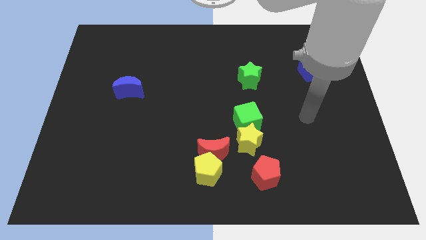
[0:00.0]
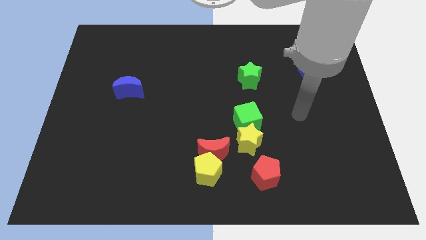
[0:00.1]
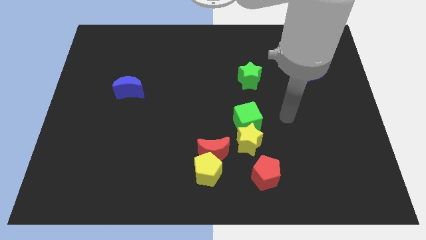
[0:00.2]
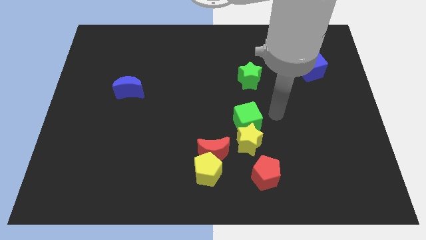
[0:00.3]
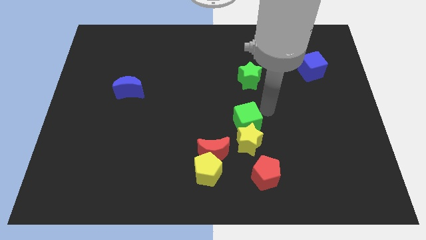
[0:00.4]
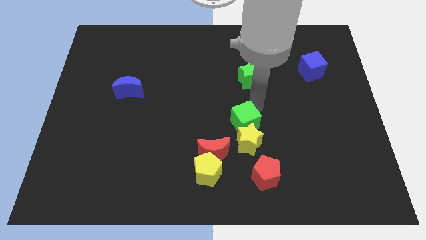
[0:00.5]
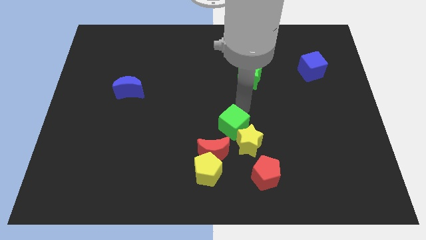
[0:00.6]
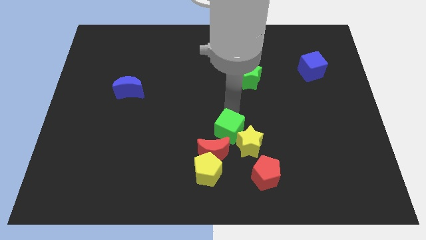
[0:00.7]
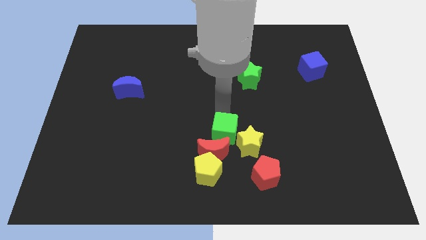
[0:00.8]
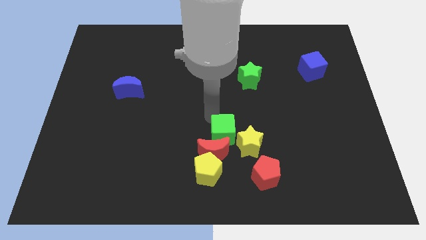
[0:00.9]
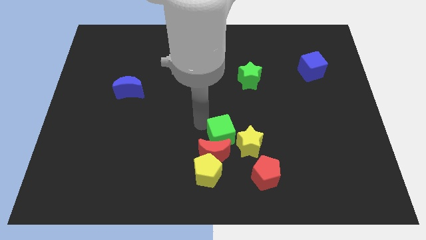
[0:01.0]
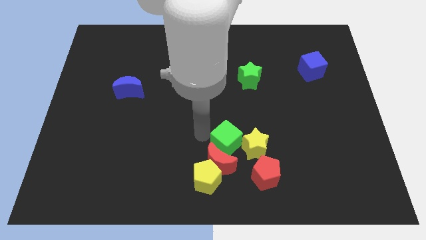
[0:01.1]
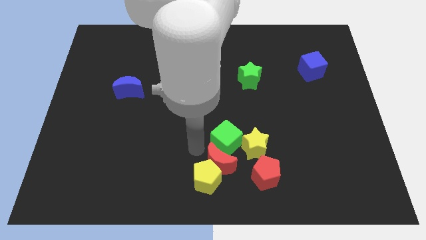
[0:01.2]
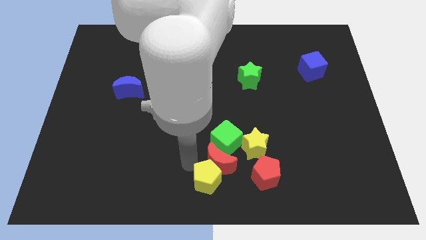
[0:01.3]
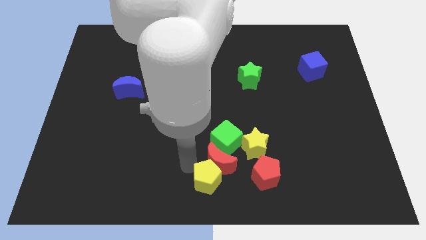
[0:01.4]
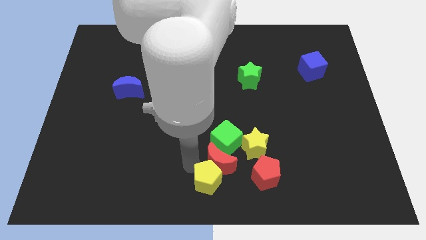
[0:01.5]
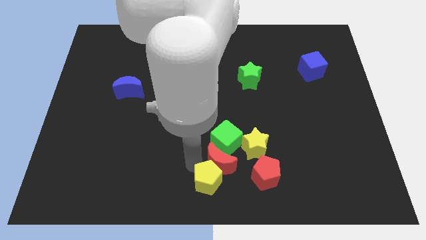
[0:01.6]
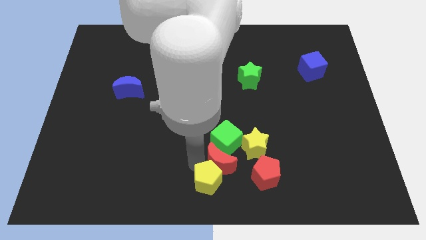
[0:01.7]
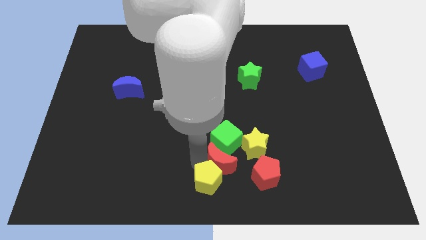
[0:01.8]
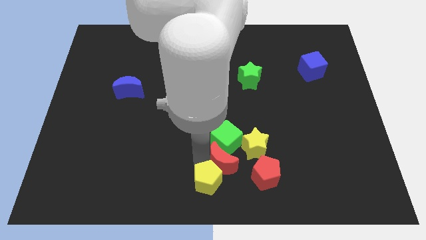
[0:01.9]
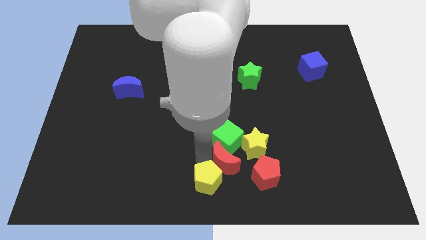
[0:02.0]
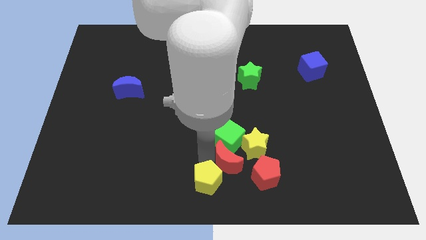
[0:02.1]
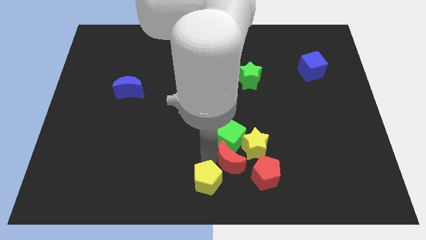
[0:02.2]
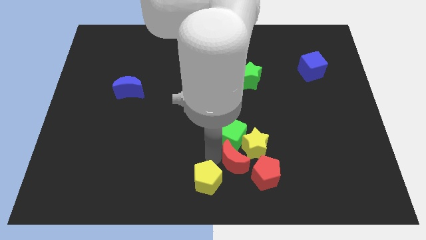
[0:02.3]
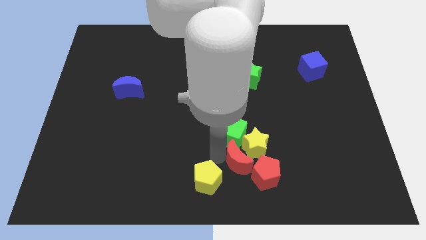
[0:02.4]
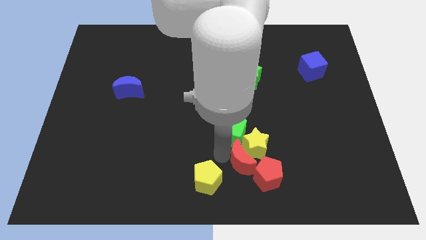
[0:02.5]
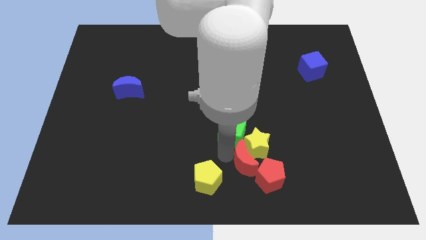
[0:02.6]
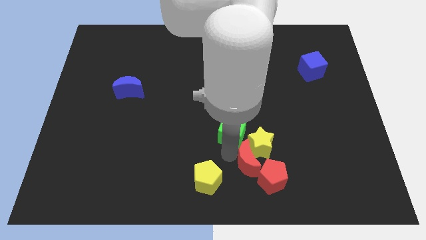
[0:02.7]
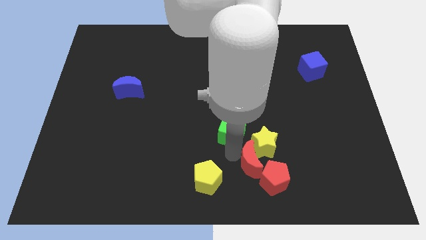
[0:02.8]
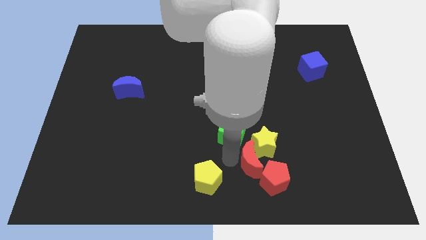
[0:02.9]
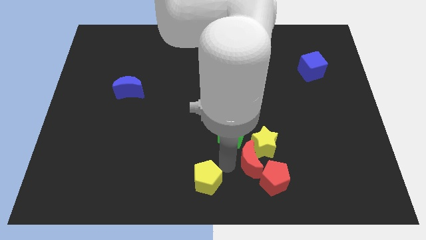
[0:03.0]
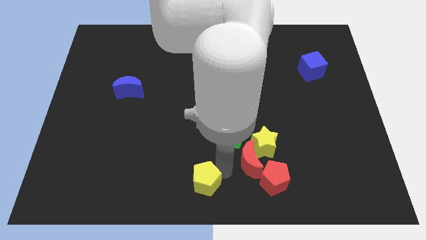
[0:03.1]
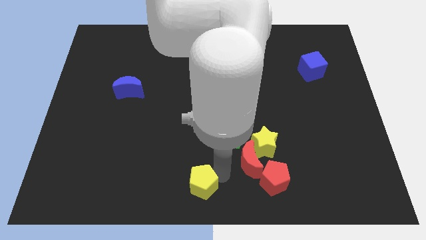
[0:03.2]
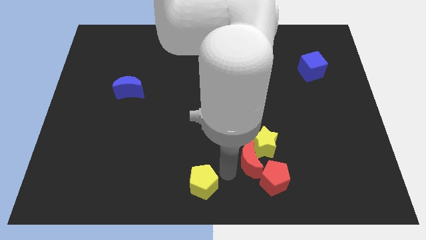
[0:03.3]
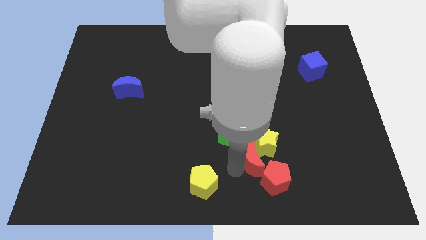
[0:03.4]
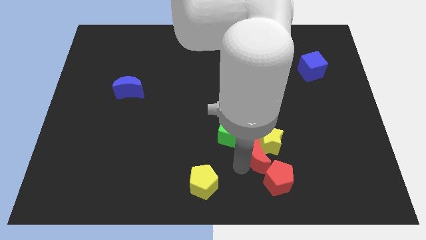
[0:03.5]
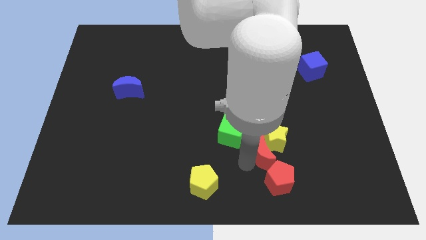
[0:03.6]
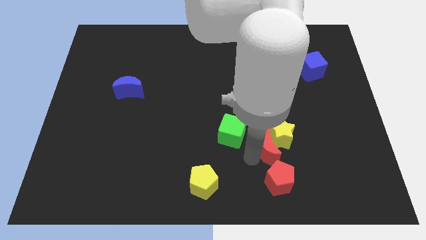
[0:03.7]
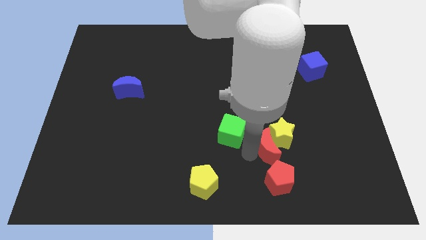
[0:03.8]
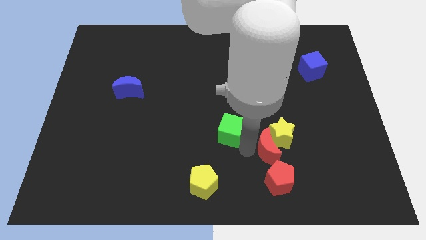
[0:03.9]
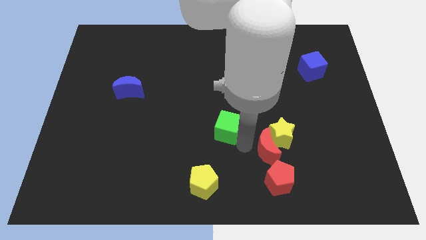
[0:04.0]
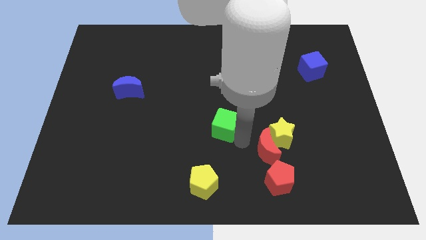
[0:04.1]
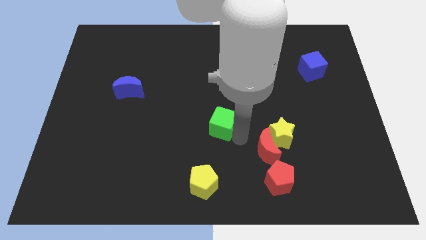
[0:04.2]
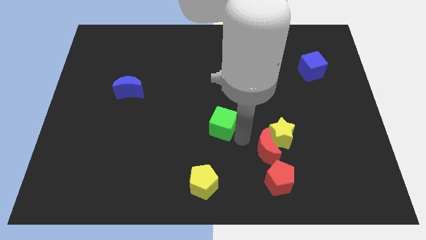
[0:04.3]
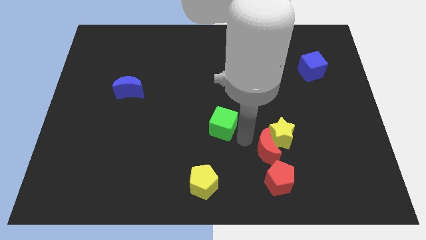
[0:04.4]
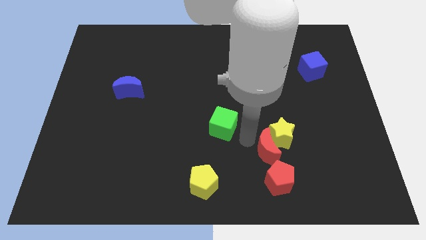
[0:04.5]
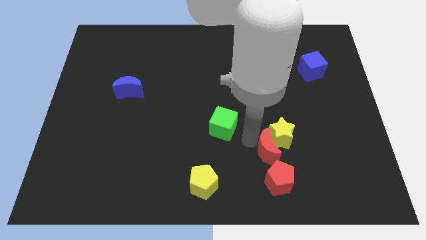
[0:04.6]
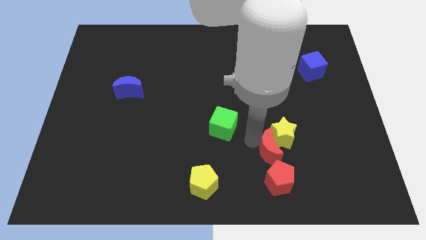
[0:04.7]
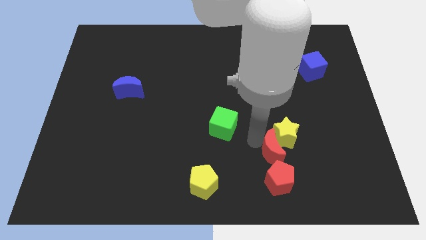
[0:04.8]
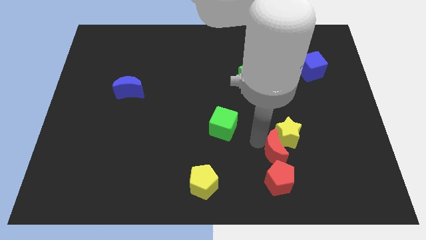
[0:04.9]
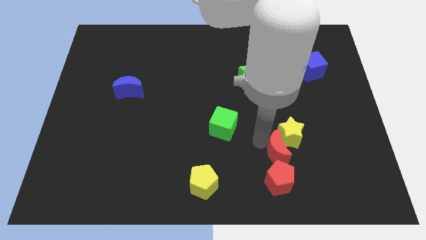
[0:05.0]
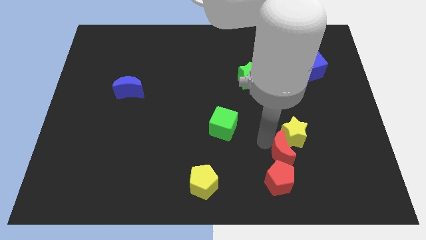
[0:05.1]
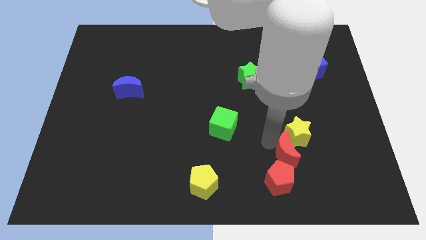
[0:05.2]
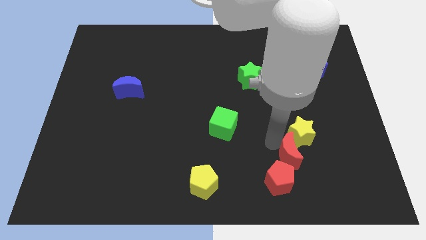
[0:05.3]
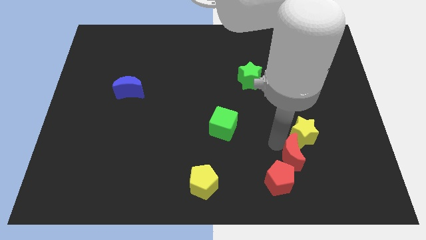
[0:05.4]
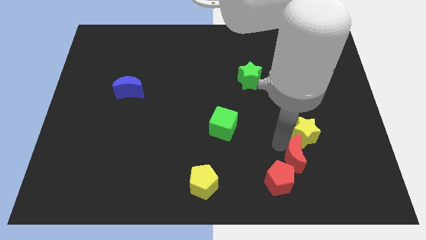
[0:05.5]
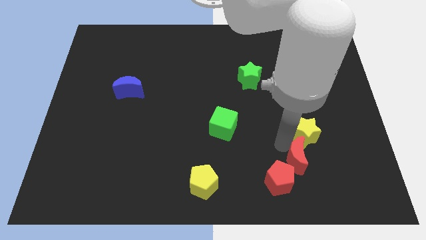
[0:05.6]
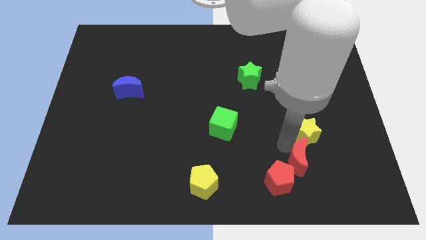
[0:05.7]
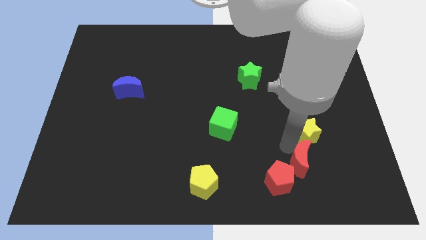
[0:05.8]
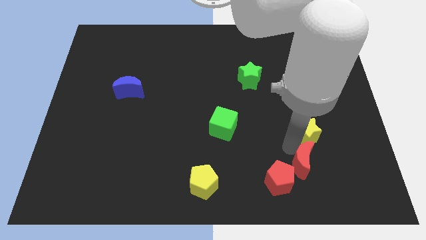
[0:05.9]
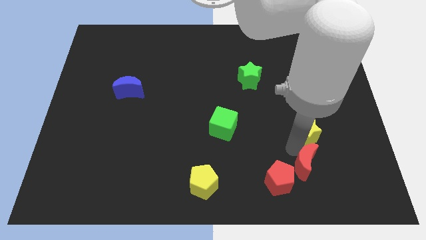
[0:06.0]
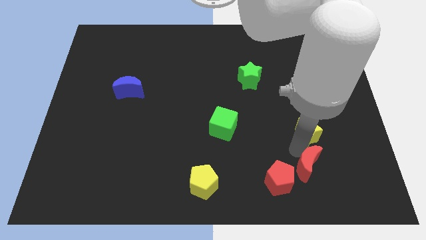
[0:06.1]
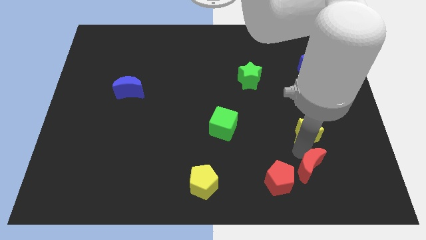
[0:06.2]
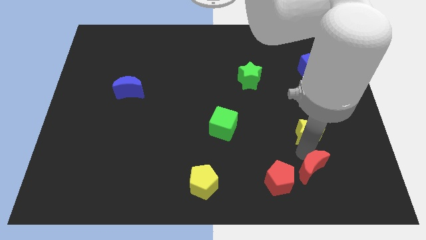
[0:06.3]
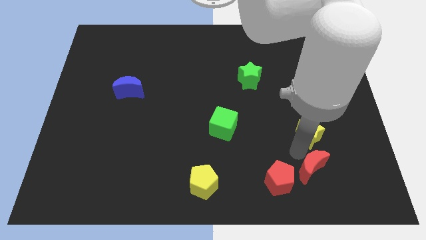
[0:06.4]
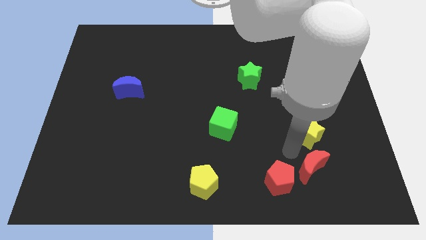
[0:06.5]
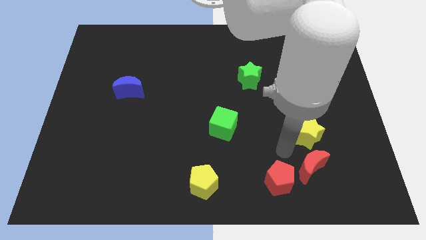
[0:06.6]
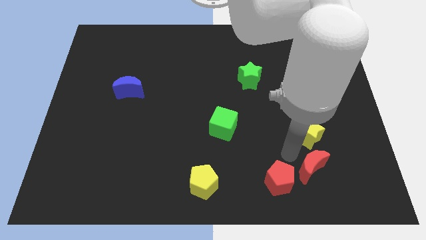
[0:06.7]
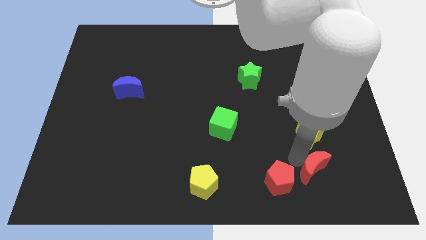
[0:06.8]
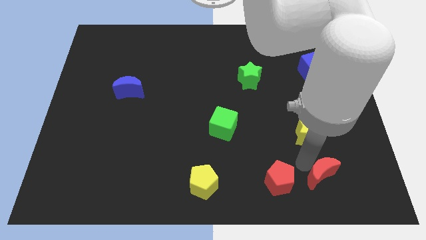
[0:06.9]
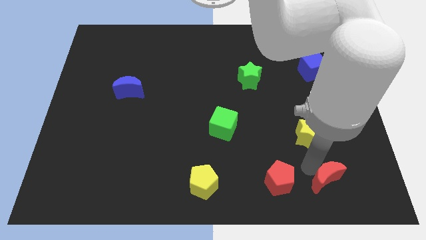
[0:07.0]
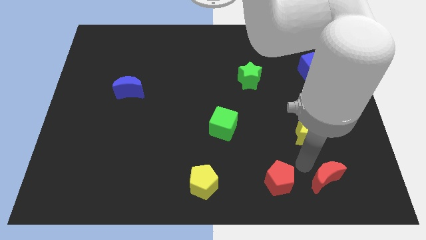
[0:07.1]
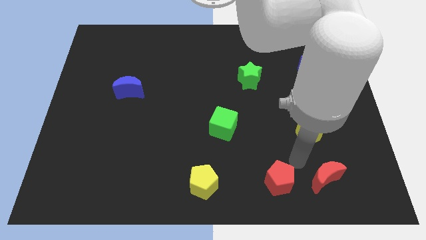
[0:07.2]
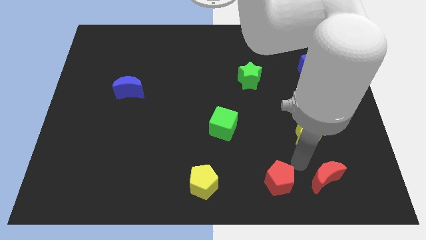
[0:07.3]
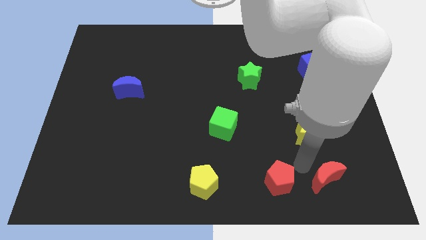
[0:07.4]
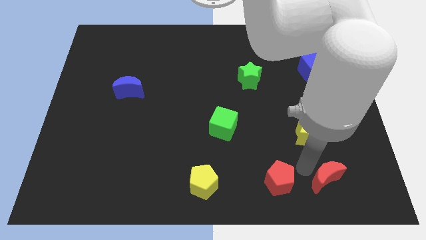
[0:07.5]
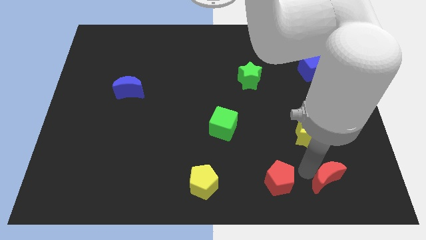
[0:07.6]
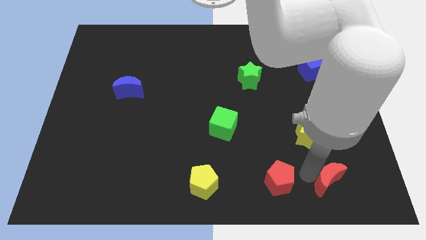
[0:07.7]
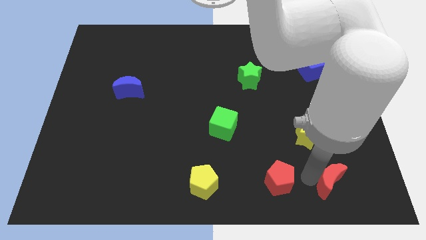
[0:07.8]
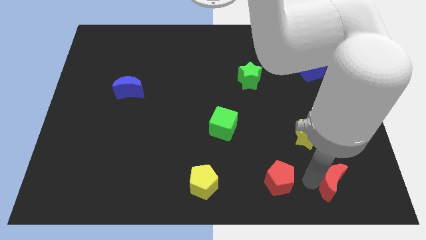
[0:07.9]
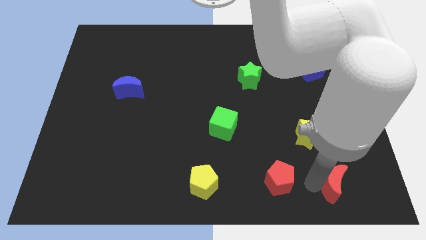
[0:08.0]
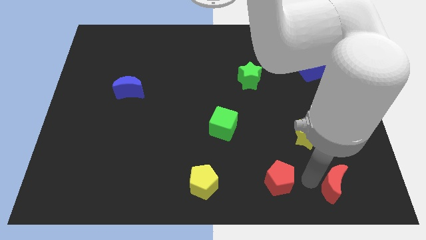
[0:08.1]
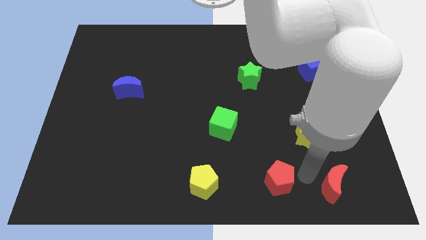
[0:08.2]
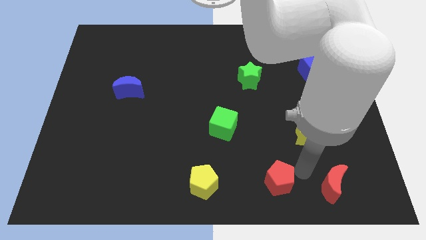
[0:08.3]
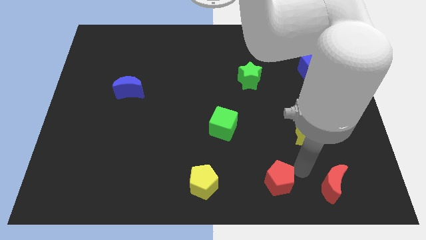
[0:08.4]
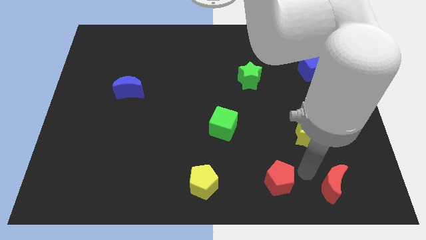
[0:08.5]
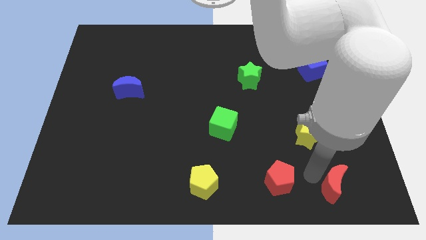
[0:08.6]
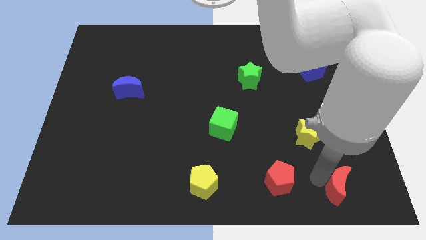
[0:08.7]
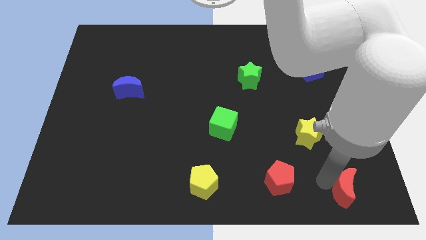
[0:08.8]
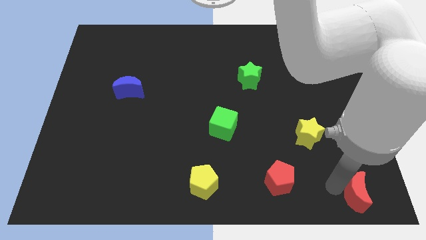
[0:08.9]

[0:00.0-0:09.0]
push the red moon to the lower right corner
